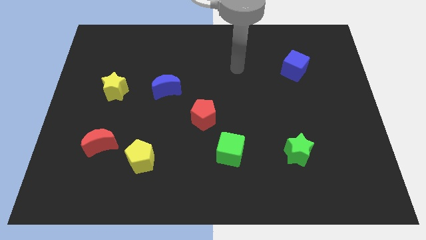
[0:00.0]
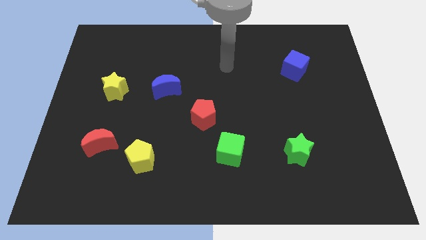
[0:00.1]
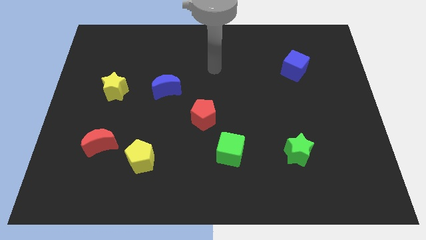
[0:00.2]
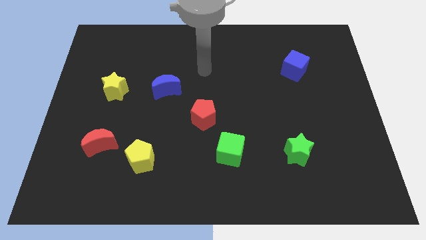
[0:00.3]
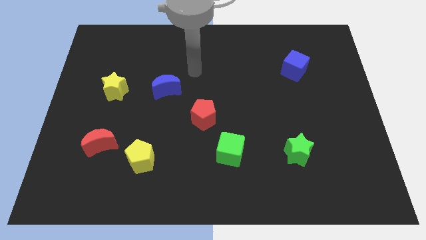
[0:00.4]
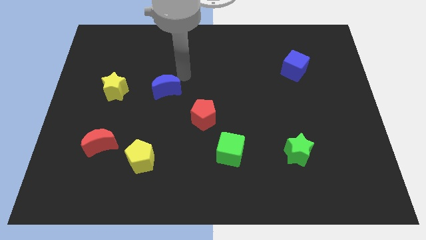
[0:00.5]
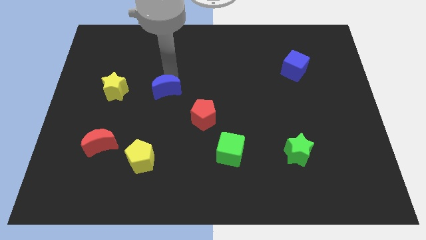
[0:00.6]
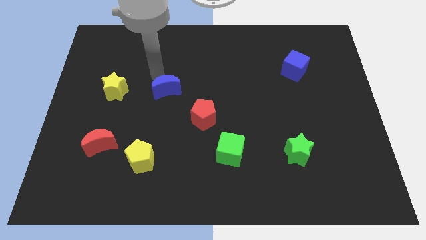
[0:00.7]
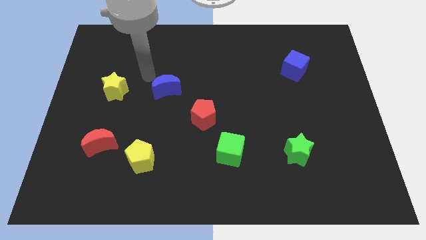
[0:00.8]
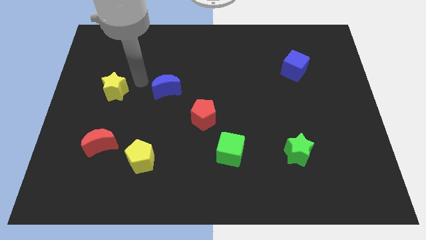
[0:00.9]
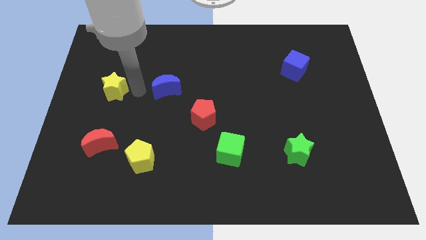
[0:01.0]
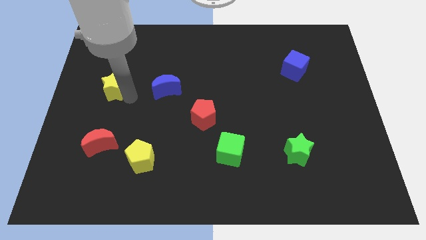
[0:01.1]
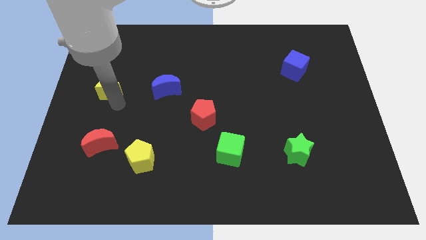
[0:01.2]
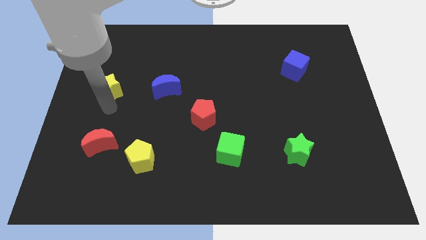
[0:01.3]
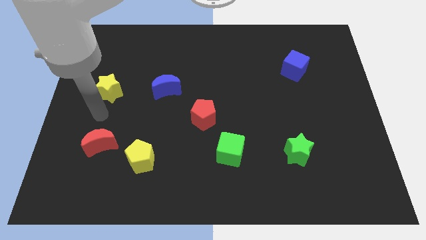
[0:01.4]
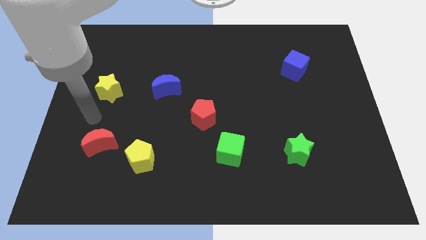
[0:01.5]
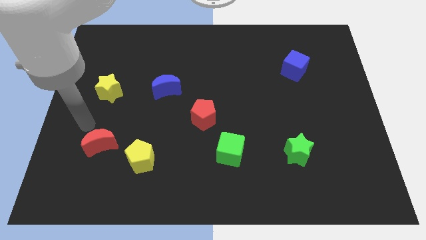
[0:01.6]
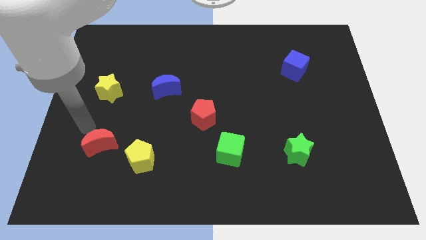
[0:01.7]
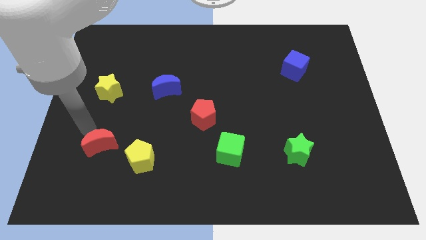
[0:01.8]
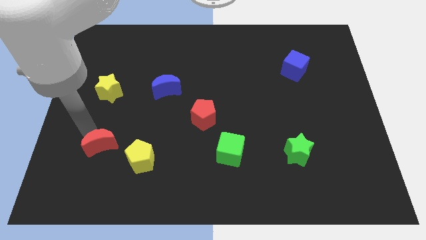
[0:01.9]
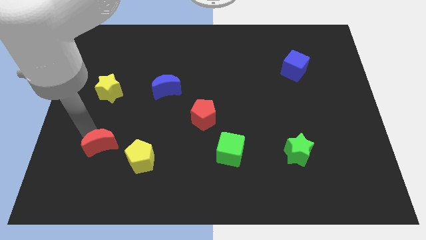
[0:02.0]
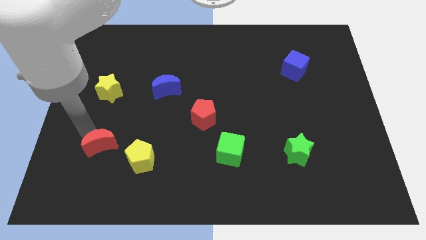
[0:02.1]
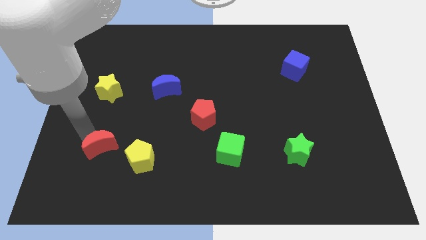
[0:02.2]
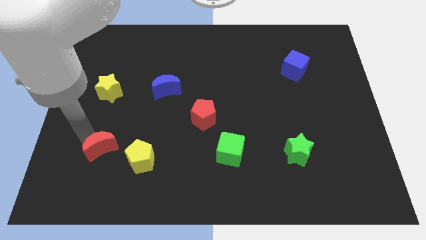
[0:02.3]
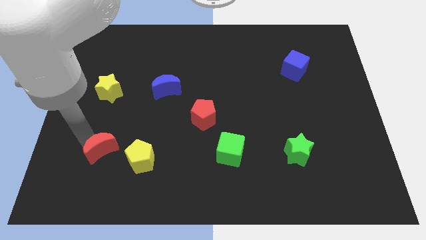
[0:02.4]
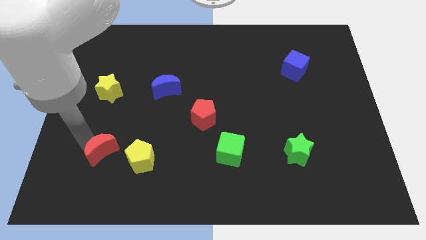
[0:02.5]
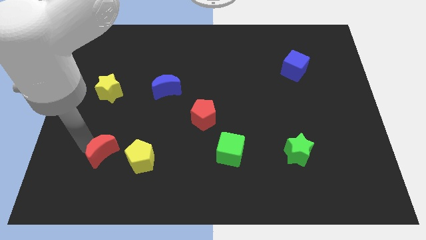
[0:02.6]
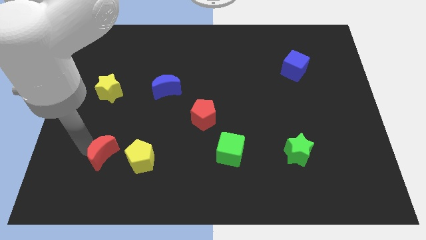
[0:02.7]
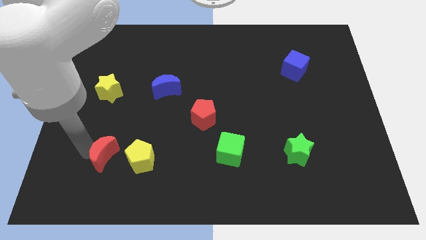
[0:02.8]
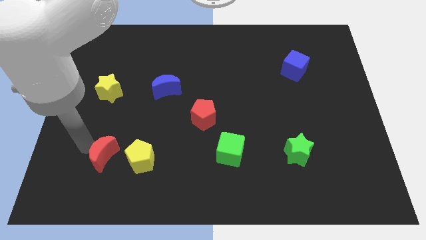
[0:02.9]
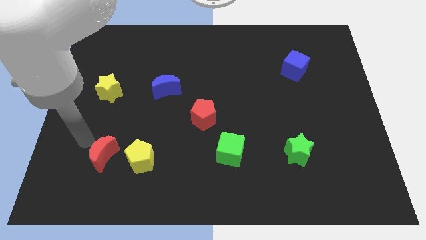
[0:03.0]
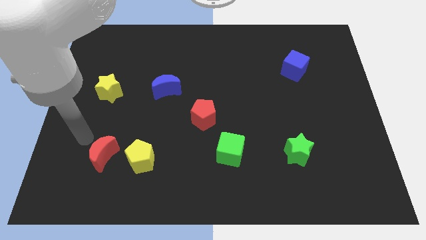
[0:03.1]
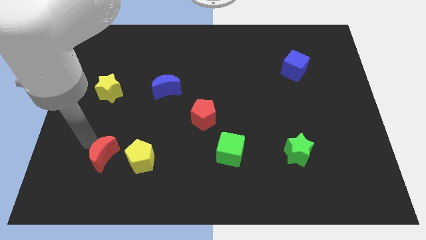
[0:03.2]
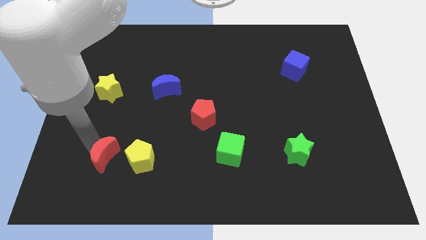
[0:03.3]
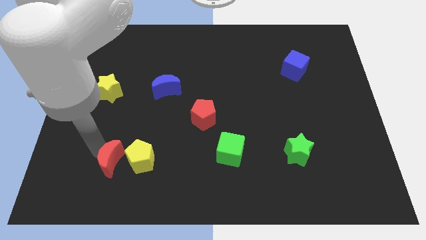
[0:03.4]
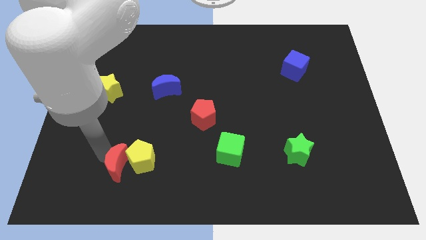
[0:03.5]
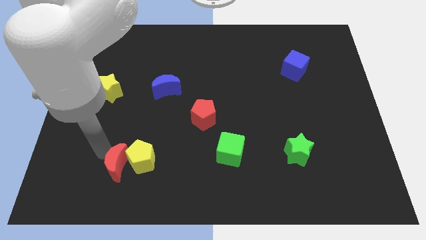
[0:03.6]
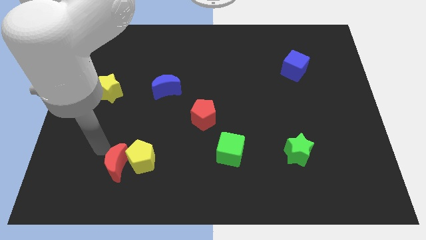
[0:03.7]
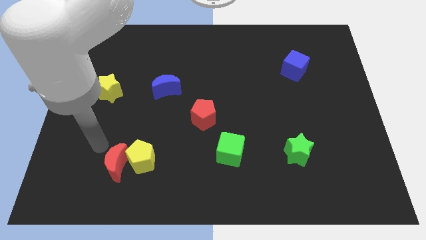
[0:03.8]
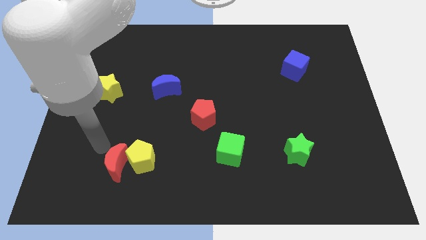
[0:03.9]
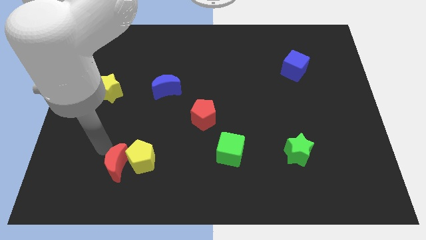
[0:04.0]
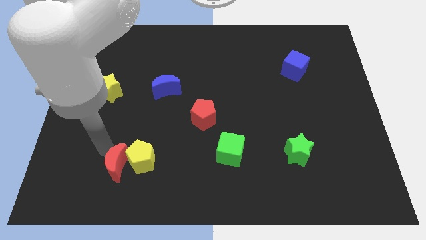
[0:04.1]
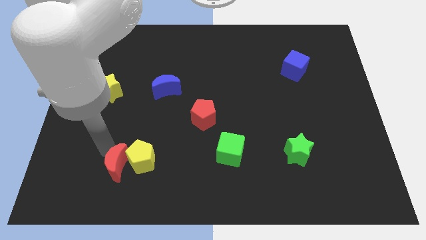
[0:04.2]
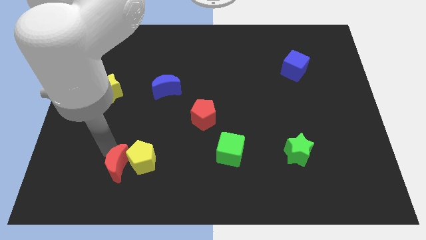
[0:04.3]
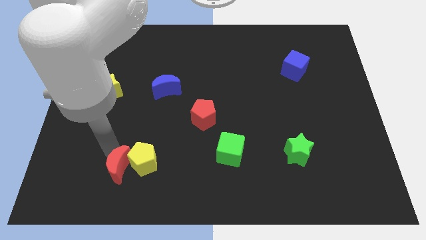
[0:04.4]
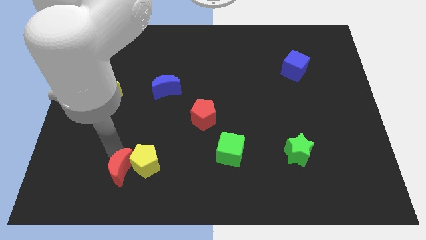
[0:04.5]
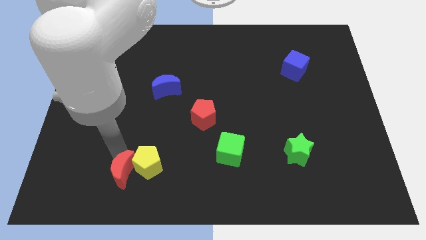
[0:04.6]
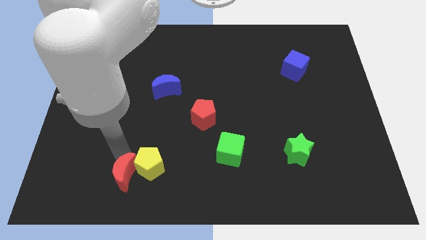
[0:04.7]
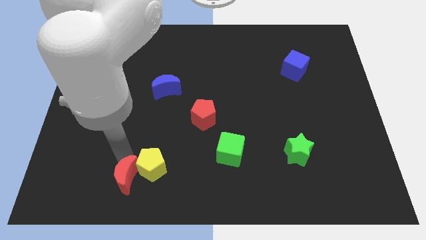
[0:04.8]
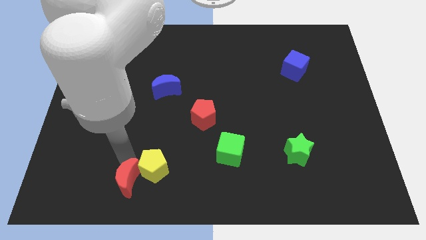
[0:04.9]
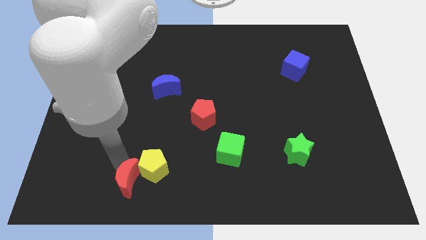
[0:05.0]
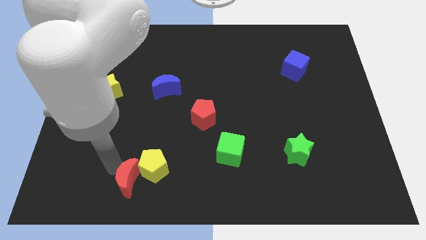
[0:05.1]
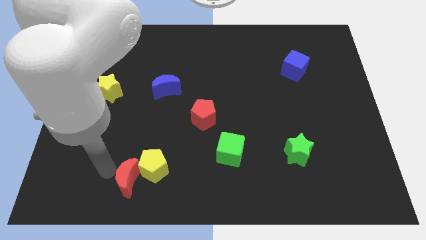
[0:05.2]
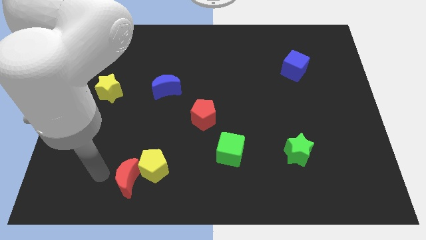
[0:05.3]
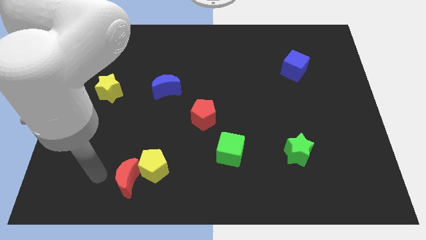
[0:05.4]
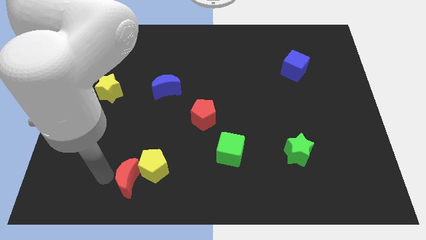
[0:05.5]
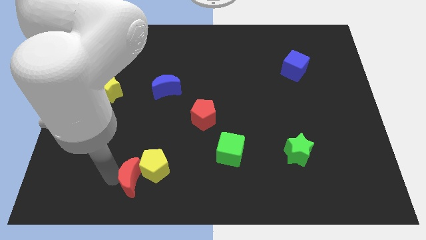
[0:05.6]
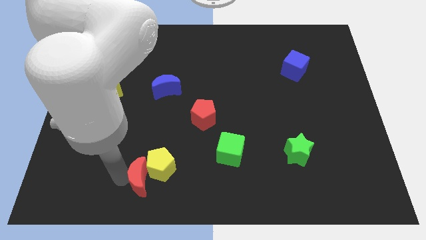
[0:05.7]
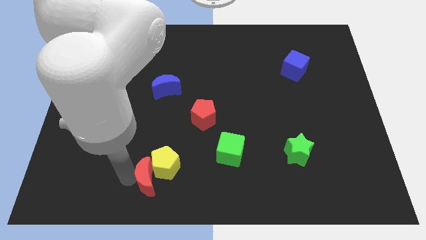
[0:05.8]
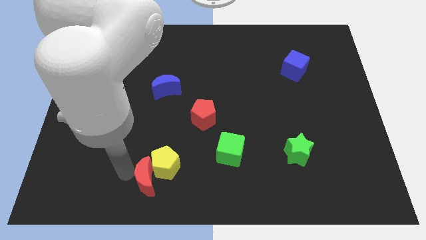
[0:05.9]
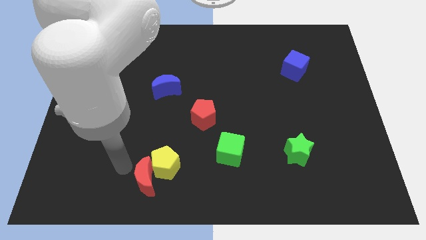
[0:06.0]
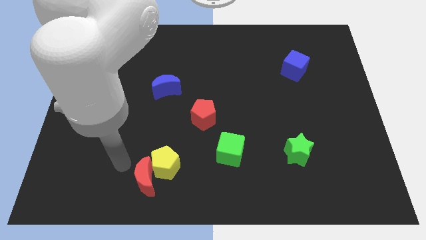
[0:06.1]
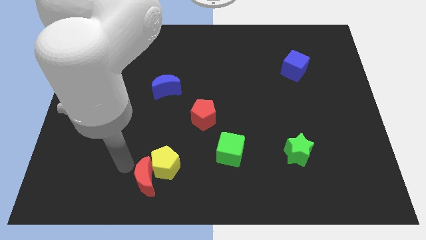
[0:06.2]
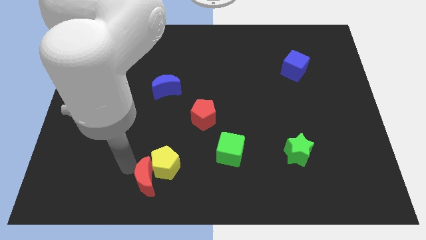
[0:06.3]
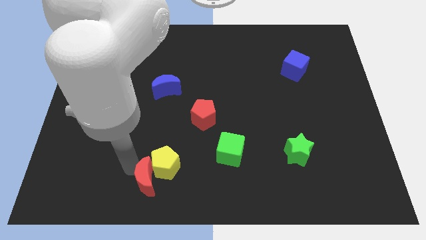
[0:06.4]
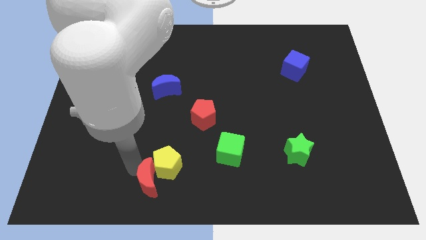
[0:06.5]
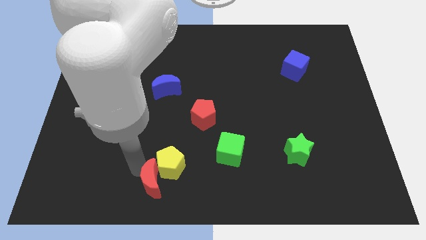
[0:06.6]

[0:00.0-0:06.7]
move the red moon to the bottom
